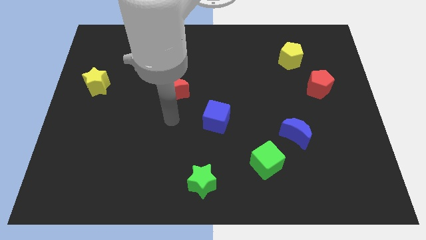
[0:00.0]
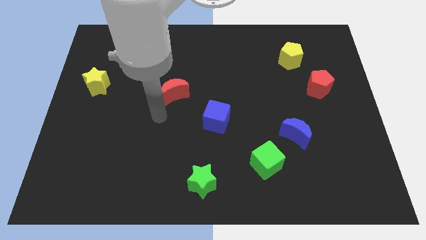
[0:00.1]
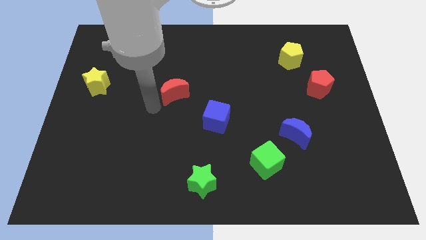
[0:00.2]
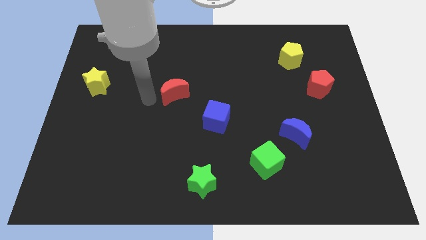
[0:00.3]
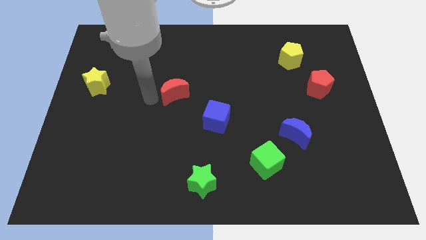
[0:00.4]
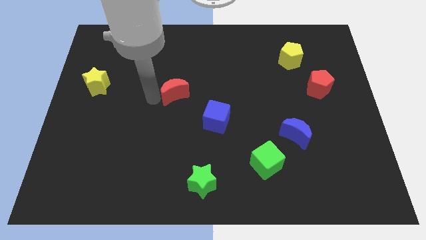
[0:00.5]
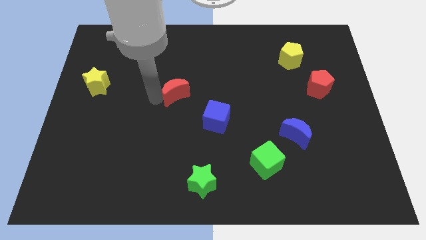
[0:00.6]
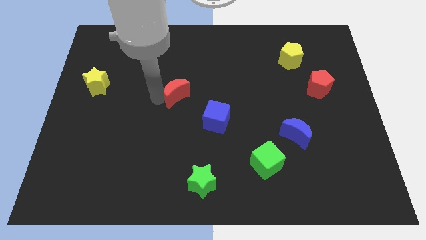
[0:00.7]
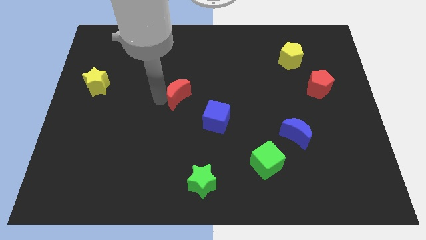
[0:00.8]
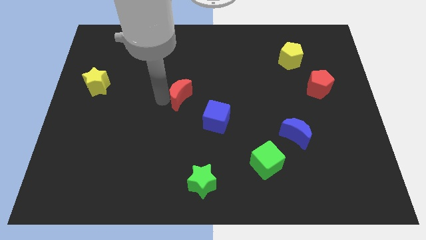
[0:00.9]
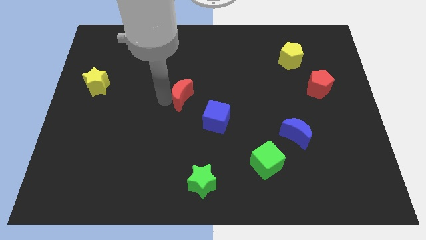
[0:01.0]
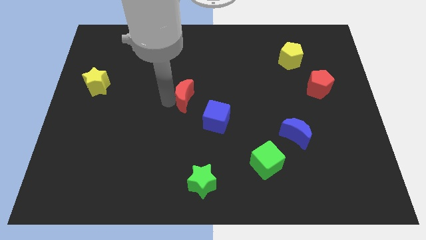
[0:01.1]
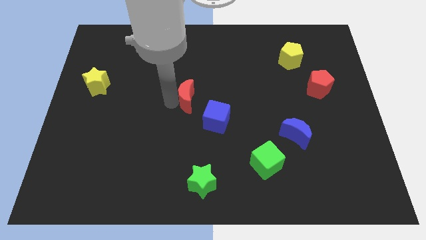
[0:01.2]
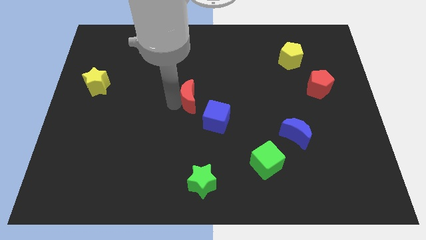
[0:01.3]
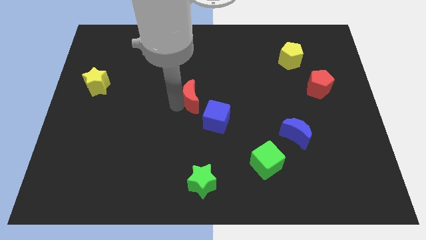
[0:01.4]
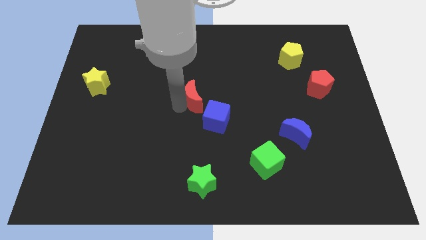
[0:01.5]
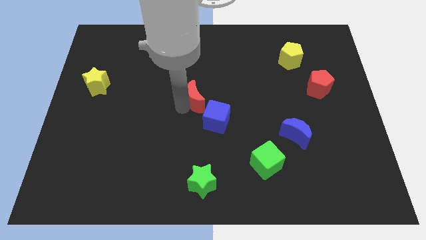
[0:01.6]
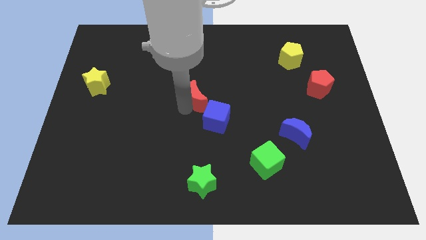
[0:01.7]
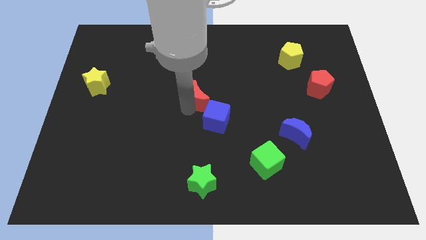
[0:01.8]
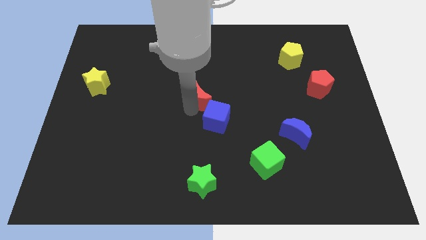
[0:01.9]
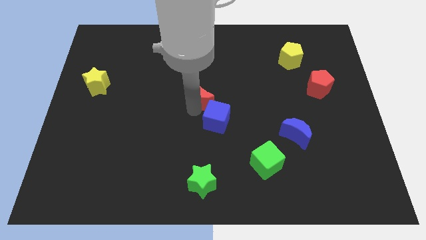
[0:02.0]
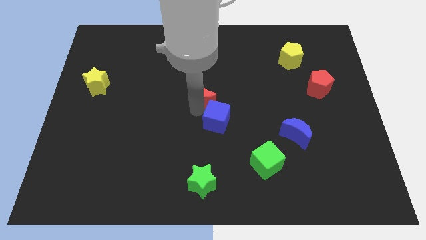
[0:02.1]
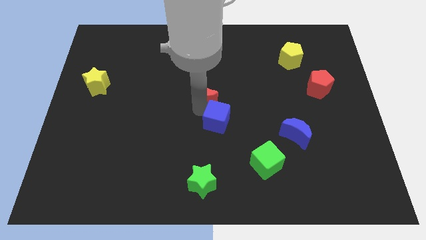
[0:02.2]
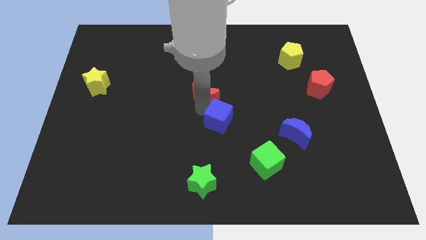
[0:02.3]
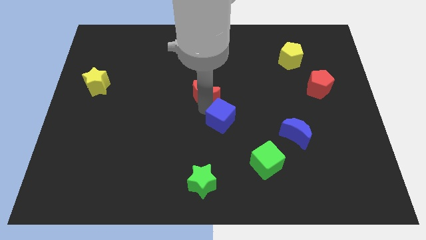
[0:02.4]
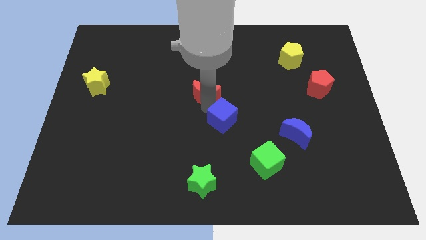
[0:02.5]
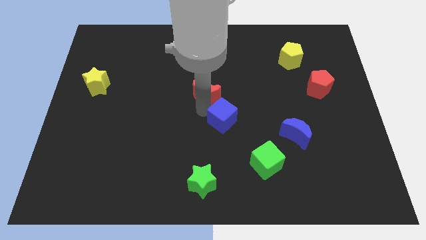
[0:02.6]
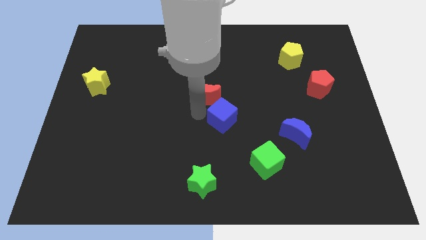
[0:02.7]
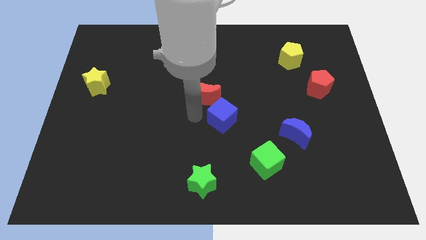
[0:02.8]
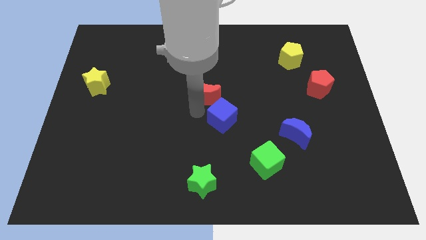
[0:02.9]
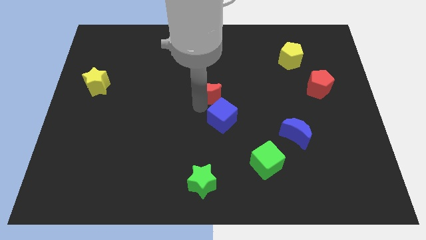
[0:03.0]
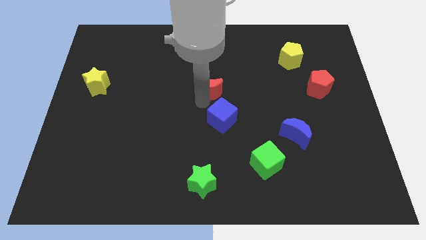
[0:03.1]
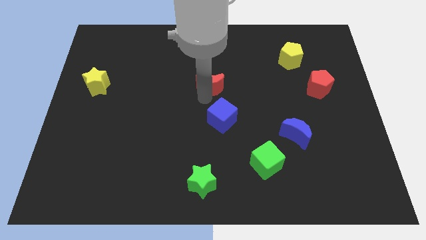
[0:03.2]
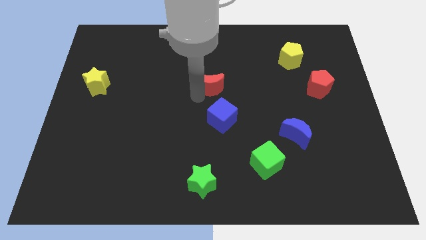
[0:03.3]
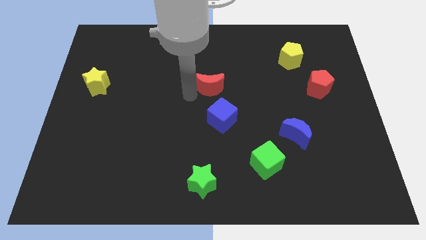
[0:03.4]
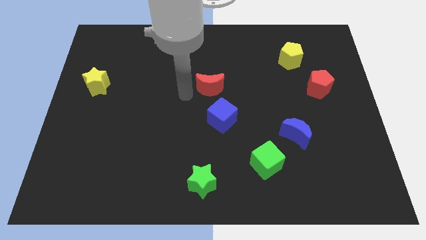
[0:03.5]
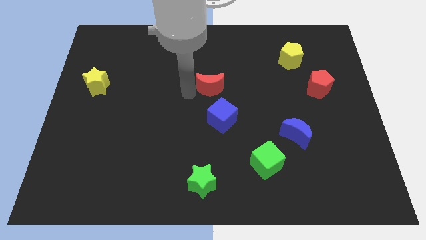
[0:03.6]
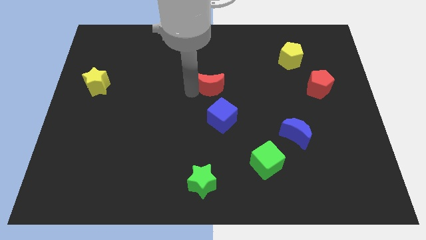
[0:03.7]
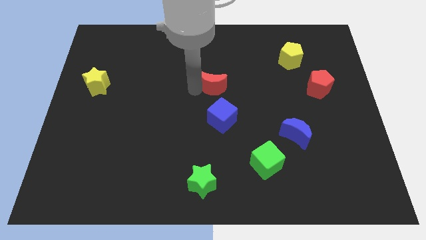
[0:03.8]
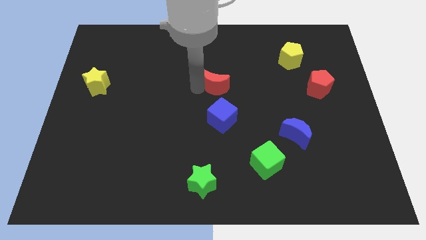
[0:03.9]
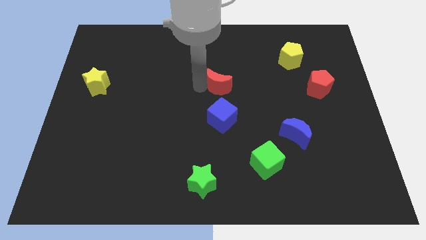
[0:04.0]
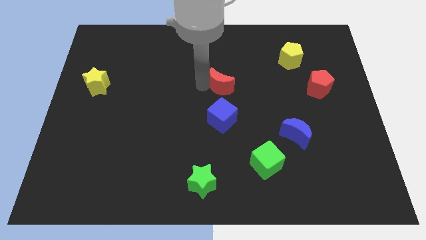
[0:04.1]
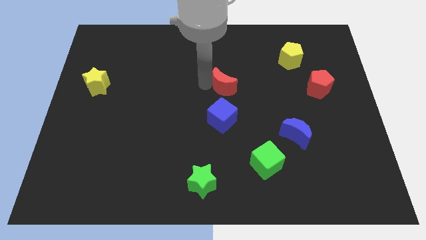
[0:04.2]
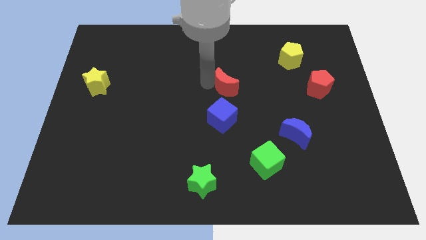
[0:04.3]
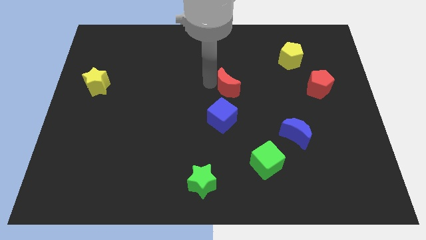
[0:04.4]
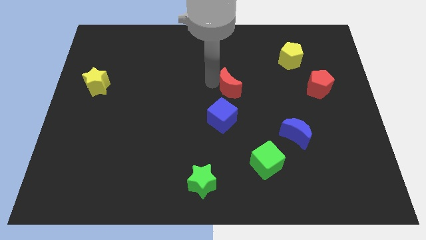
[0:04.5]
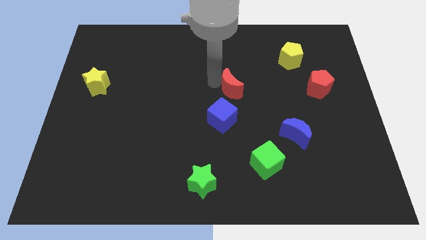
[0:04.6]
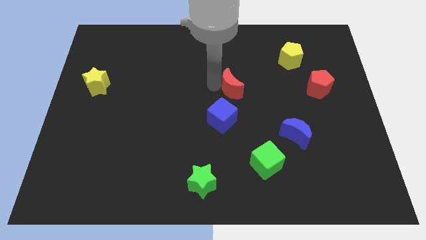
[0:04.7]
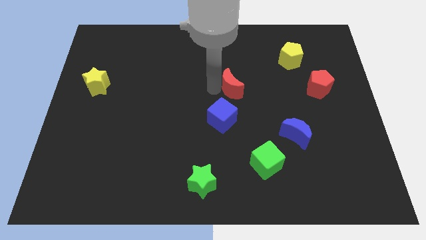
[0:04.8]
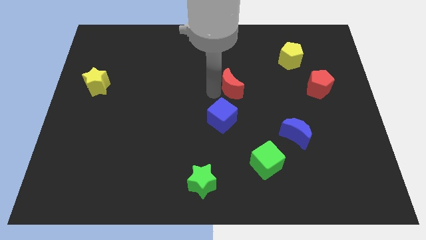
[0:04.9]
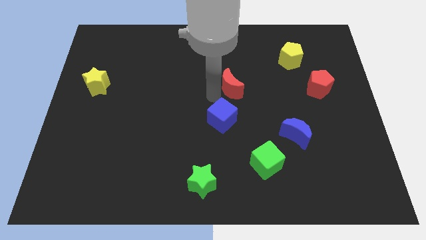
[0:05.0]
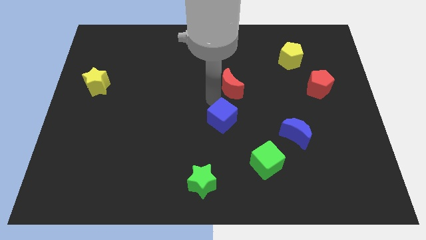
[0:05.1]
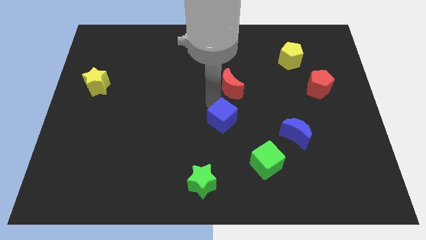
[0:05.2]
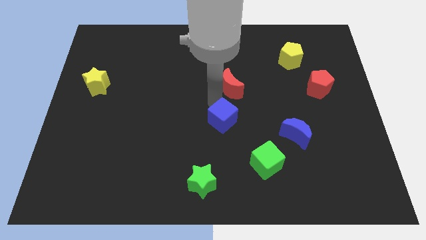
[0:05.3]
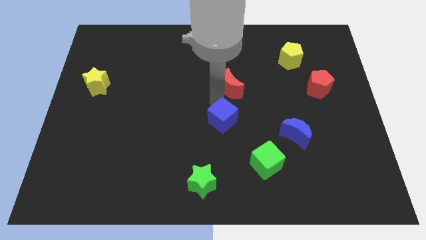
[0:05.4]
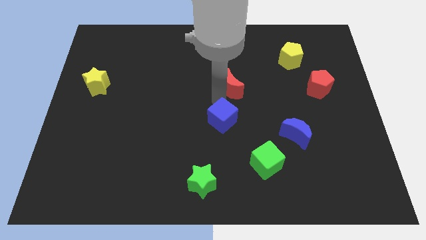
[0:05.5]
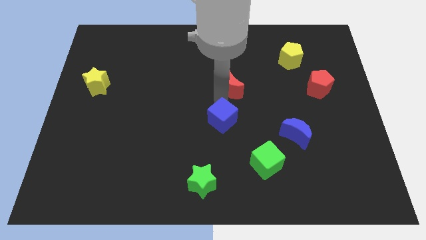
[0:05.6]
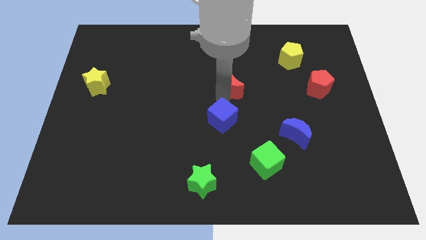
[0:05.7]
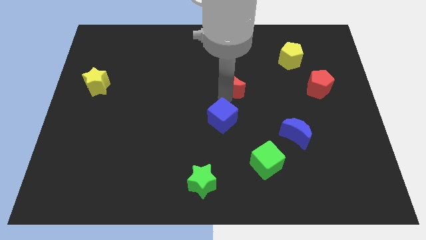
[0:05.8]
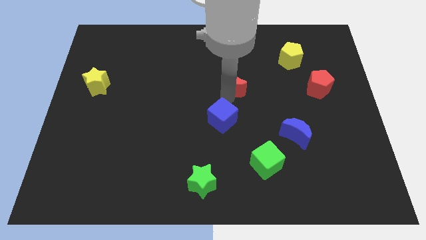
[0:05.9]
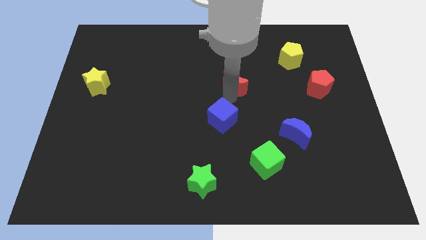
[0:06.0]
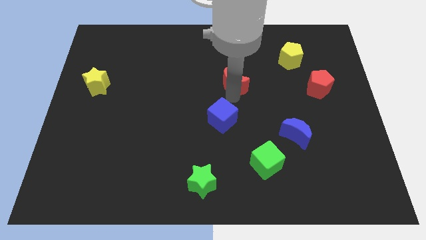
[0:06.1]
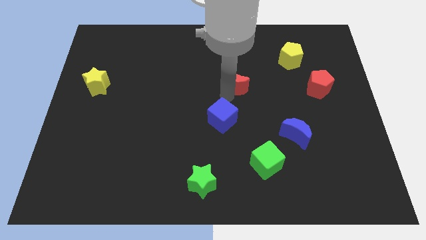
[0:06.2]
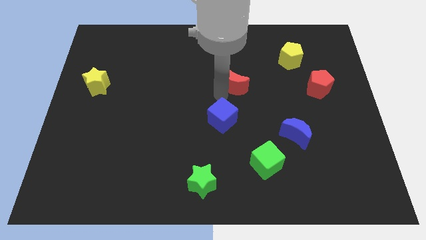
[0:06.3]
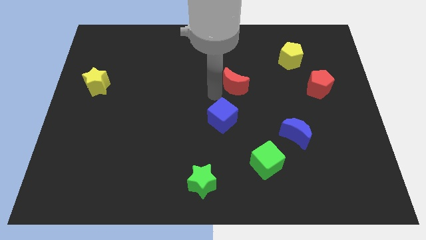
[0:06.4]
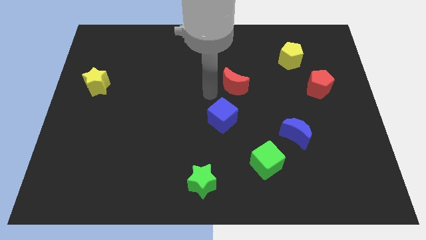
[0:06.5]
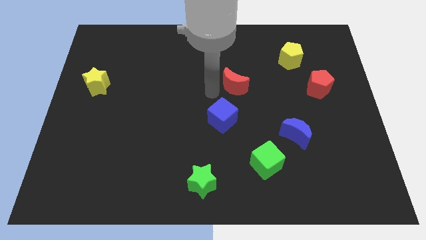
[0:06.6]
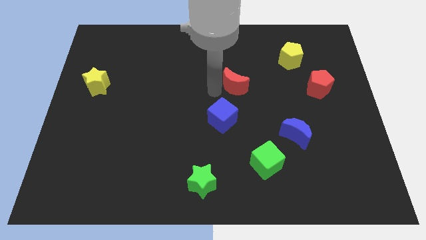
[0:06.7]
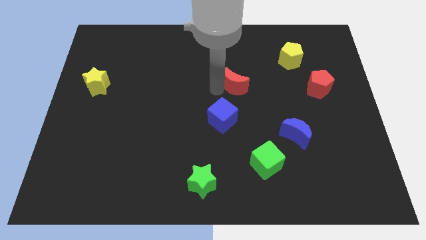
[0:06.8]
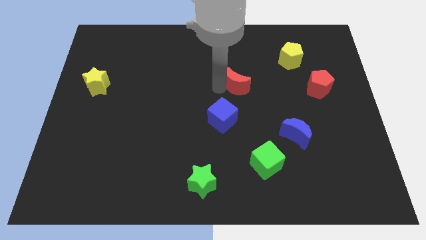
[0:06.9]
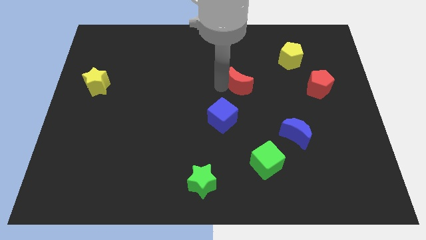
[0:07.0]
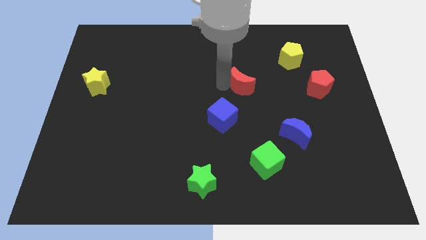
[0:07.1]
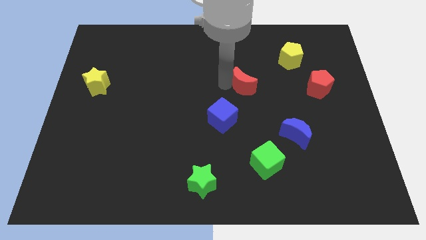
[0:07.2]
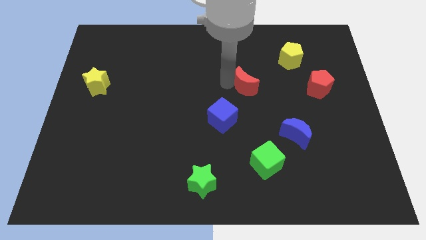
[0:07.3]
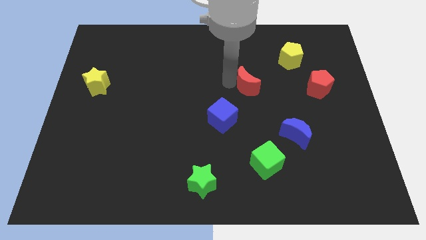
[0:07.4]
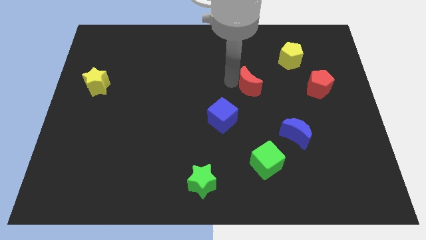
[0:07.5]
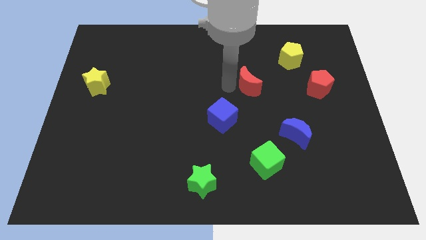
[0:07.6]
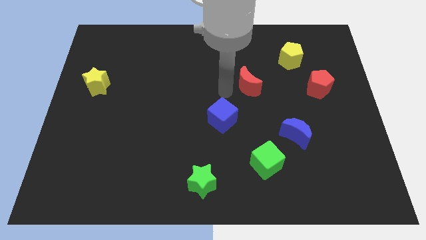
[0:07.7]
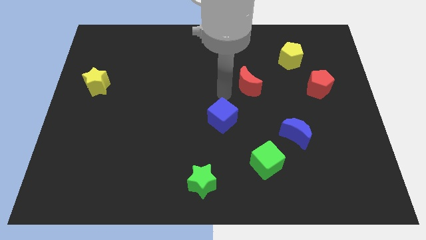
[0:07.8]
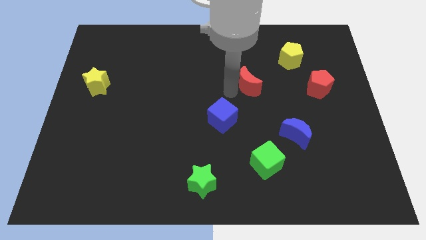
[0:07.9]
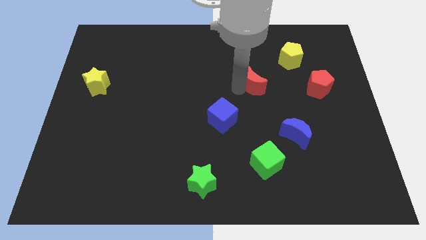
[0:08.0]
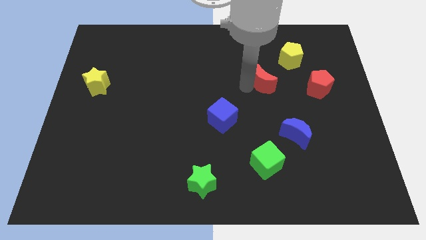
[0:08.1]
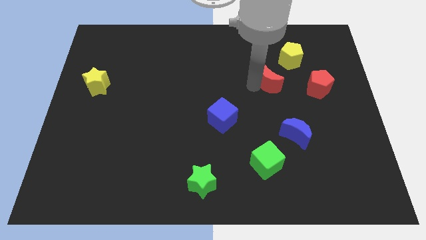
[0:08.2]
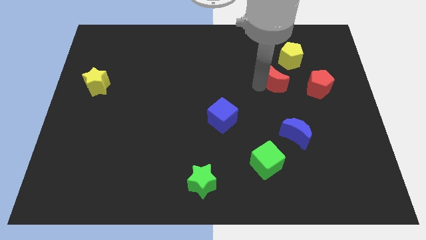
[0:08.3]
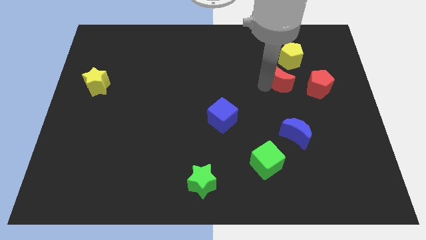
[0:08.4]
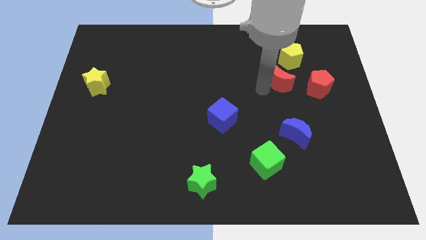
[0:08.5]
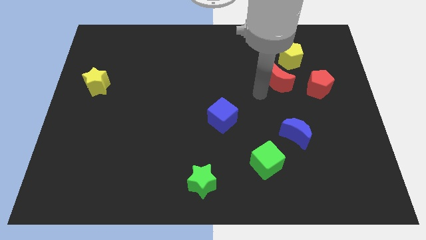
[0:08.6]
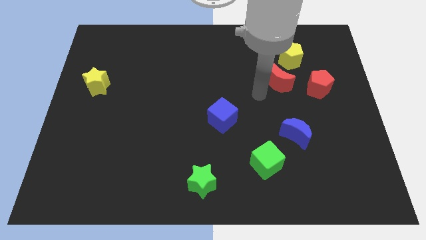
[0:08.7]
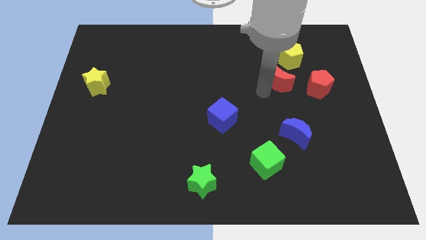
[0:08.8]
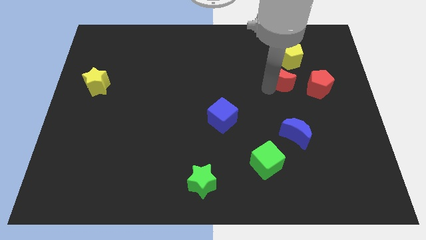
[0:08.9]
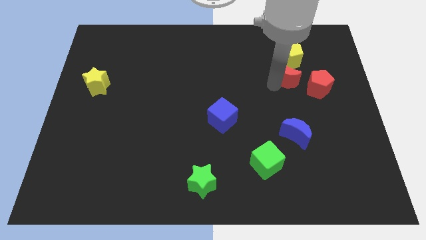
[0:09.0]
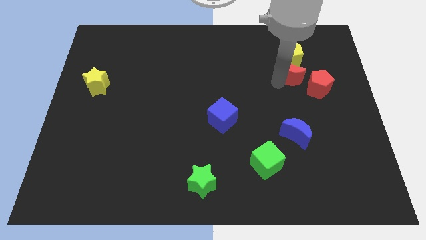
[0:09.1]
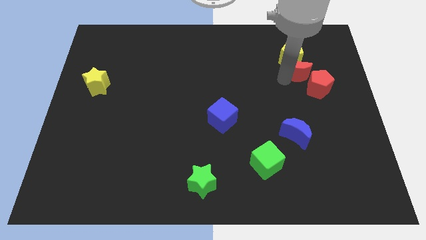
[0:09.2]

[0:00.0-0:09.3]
put the red moon above the red pentagon
